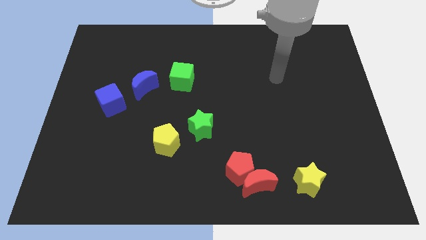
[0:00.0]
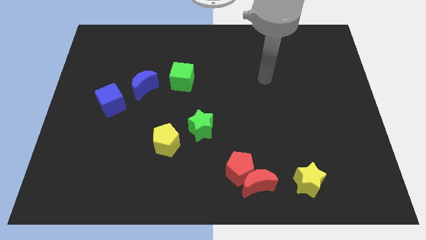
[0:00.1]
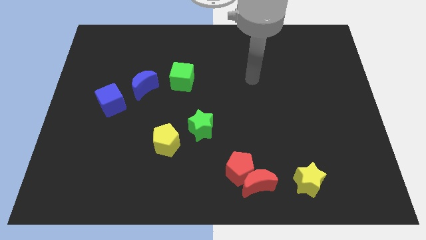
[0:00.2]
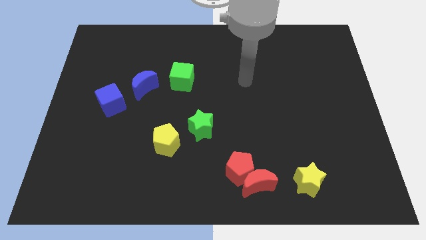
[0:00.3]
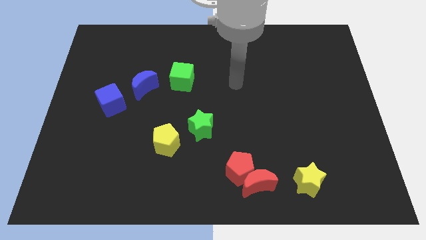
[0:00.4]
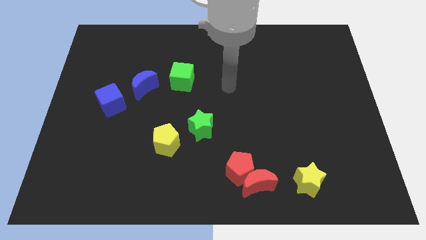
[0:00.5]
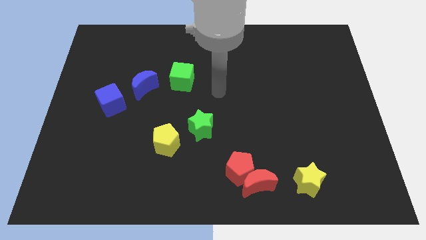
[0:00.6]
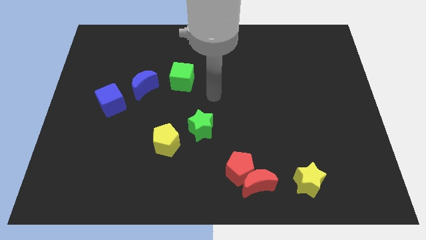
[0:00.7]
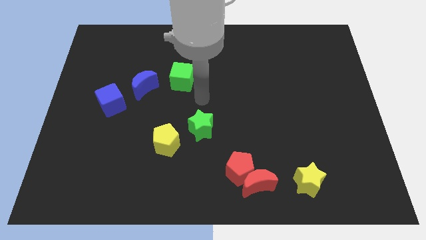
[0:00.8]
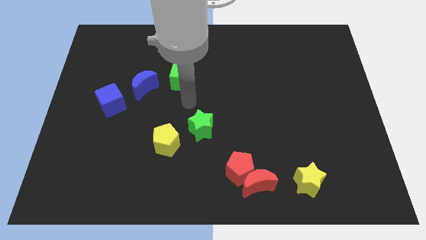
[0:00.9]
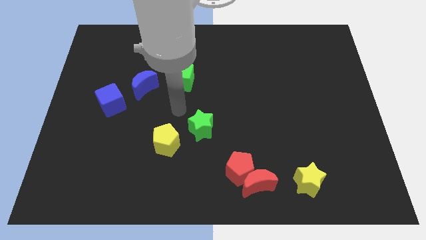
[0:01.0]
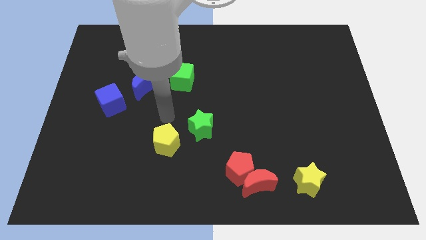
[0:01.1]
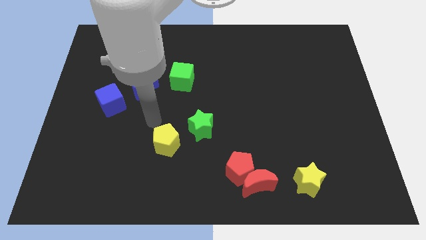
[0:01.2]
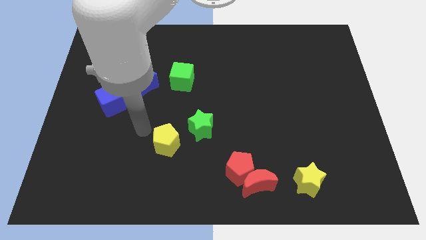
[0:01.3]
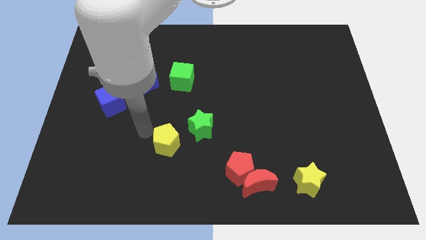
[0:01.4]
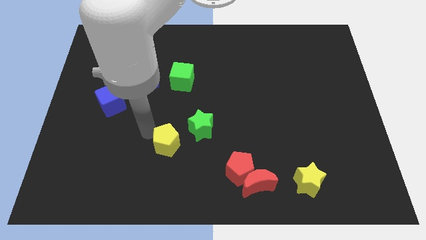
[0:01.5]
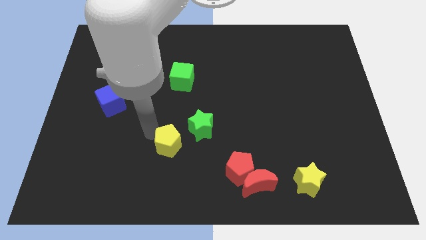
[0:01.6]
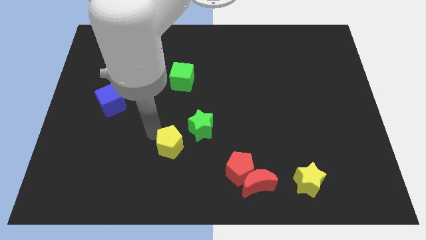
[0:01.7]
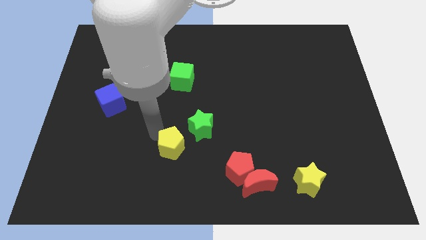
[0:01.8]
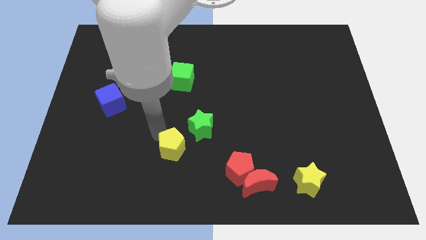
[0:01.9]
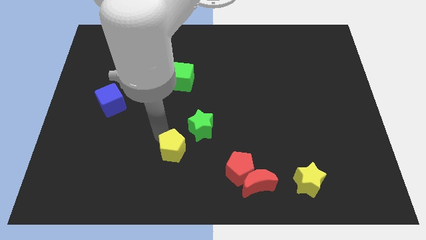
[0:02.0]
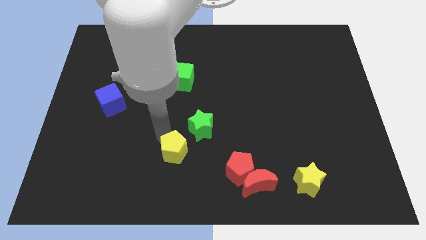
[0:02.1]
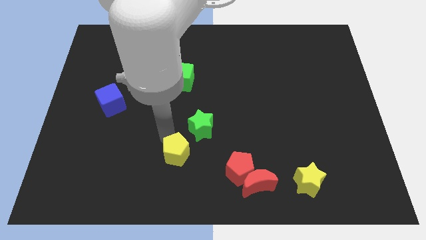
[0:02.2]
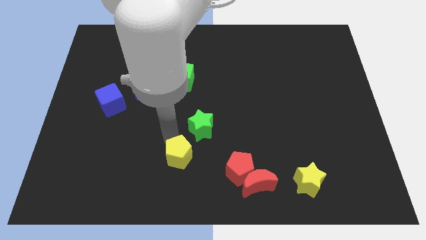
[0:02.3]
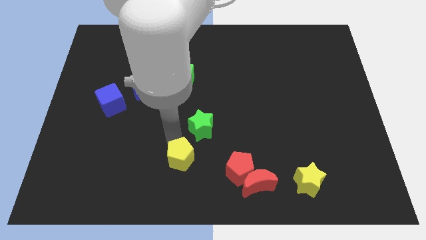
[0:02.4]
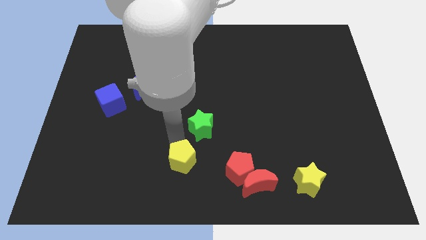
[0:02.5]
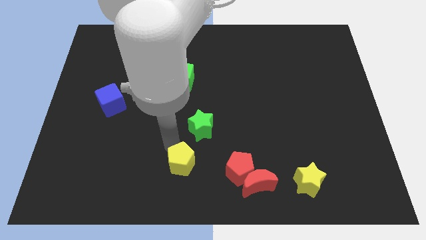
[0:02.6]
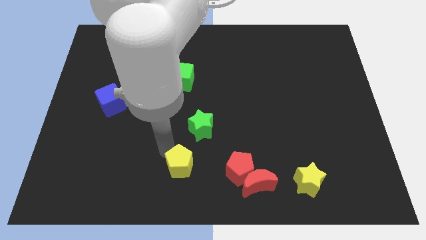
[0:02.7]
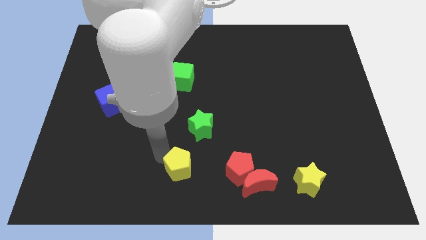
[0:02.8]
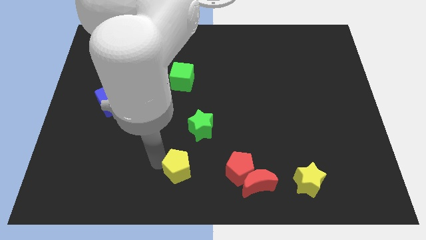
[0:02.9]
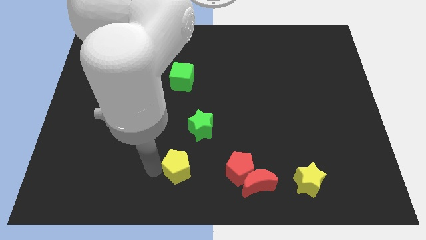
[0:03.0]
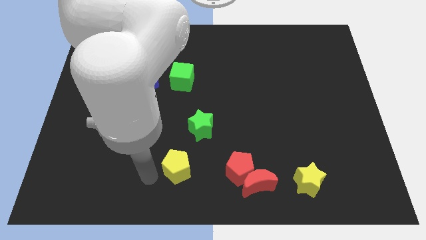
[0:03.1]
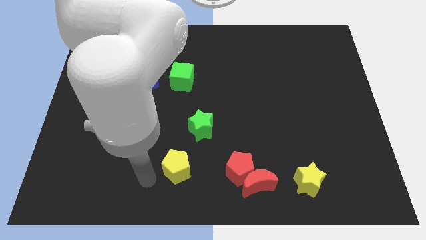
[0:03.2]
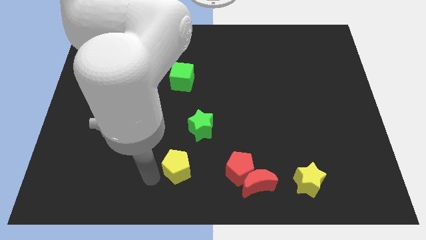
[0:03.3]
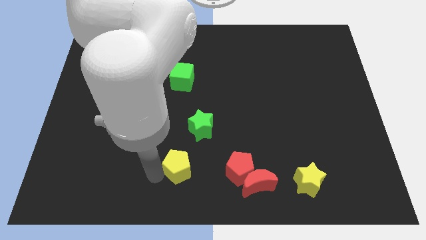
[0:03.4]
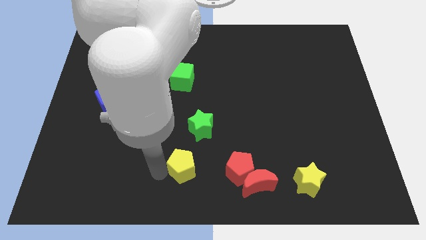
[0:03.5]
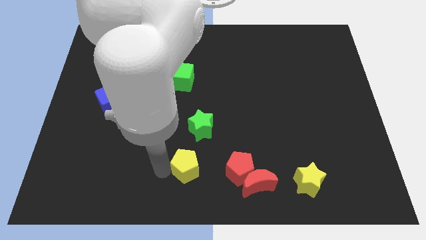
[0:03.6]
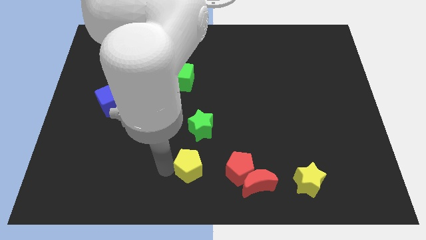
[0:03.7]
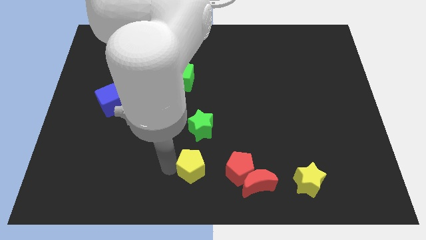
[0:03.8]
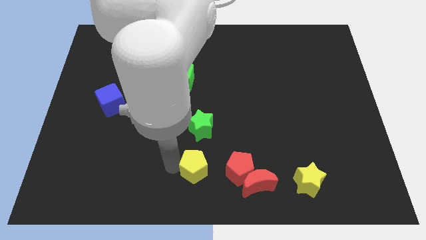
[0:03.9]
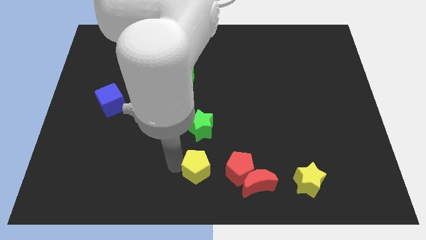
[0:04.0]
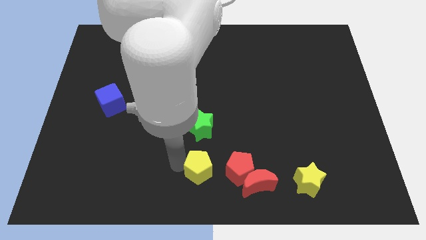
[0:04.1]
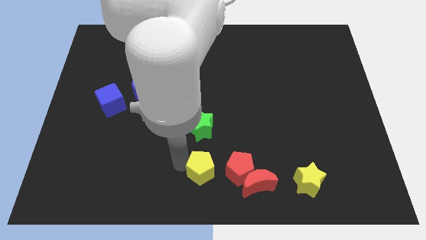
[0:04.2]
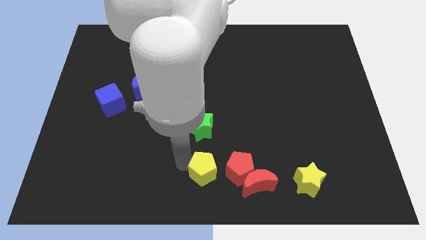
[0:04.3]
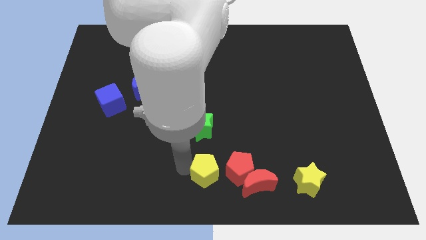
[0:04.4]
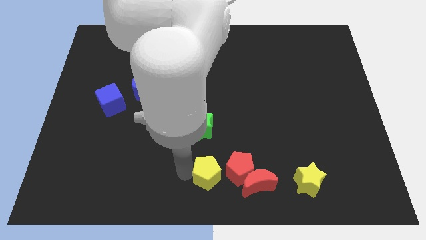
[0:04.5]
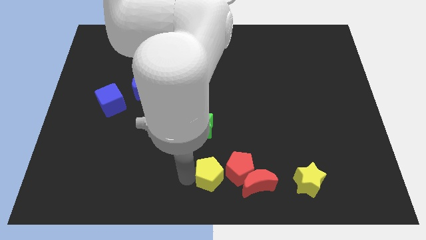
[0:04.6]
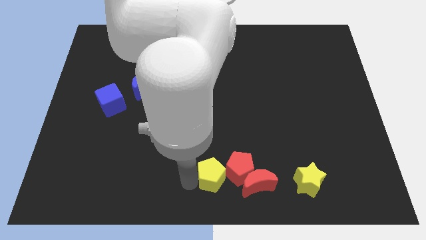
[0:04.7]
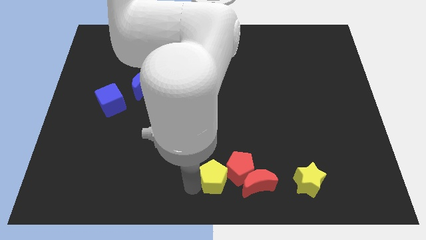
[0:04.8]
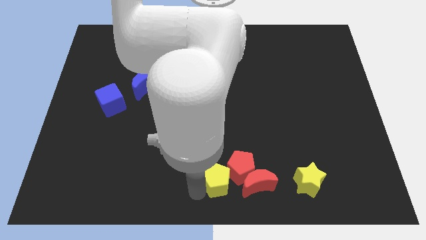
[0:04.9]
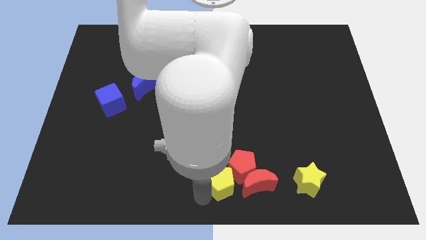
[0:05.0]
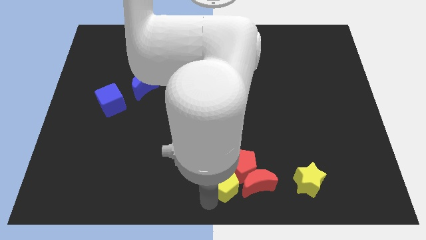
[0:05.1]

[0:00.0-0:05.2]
put the yellow pentagon to the top left of the red moon

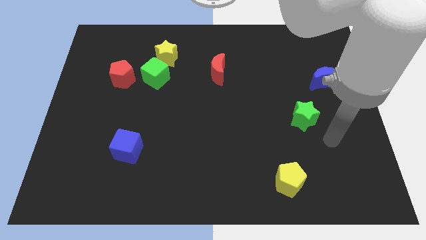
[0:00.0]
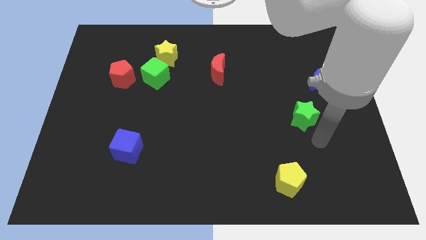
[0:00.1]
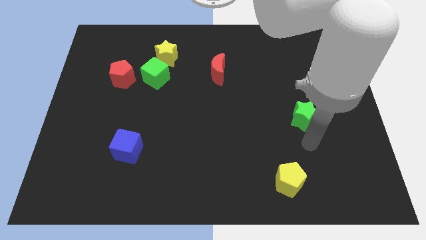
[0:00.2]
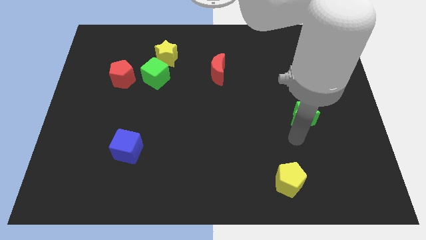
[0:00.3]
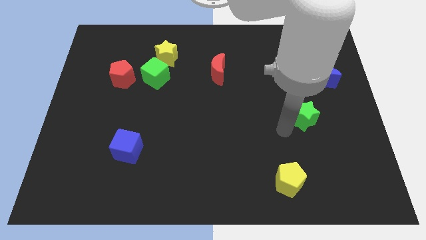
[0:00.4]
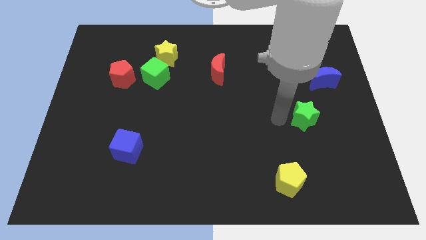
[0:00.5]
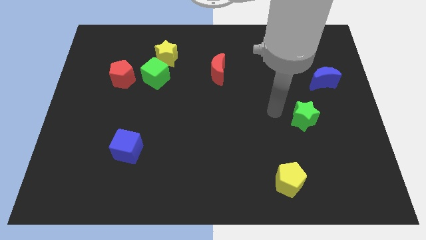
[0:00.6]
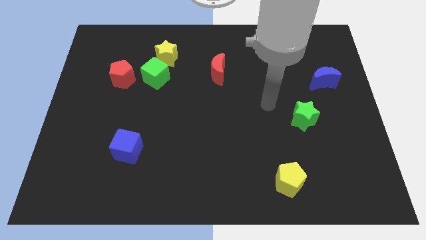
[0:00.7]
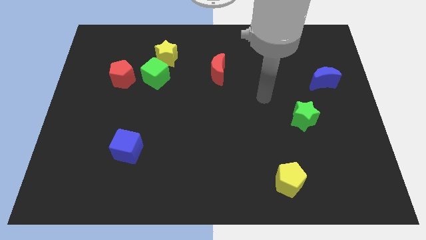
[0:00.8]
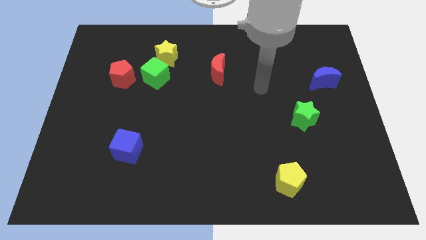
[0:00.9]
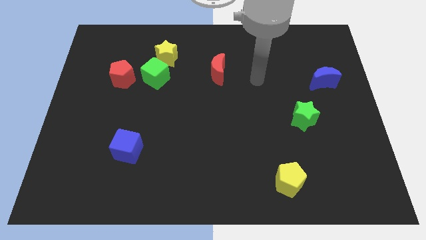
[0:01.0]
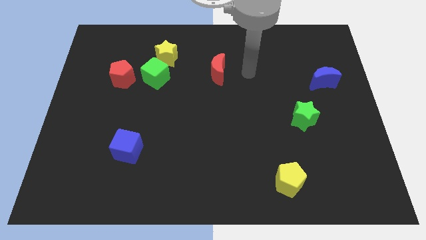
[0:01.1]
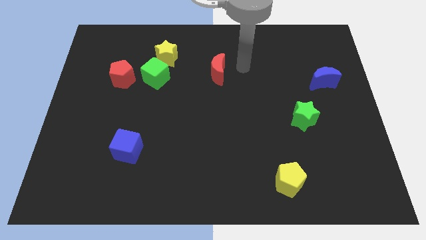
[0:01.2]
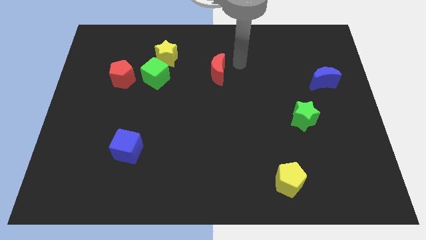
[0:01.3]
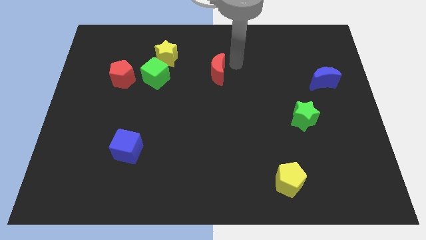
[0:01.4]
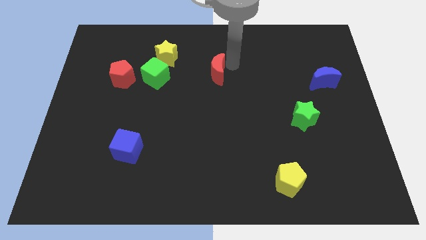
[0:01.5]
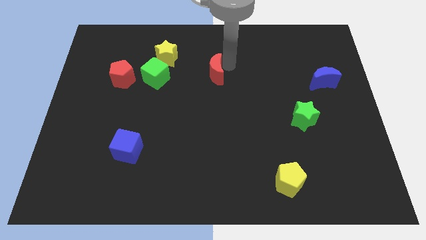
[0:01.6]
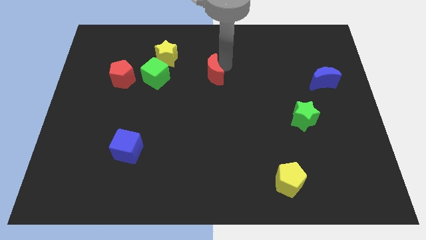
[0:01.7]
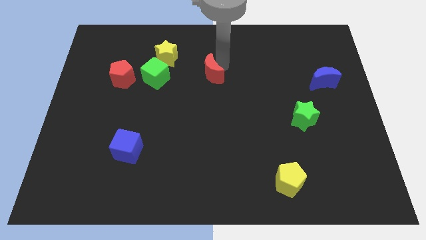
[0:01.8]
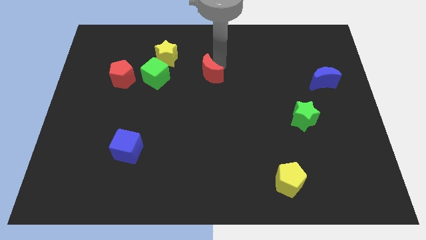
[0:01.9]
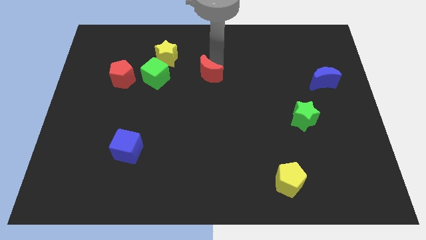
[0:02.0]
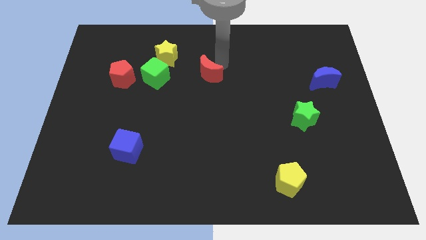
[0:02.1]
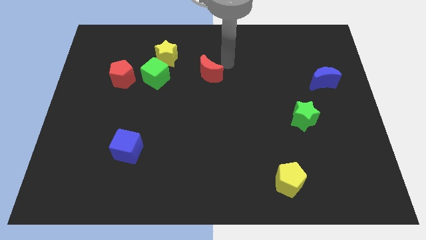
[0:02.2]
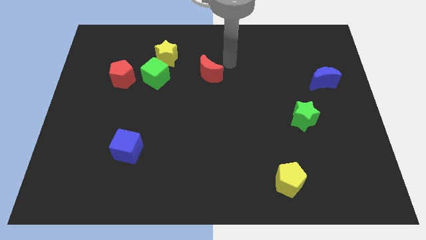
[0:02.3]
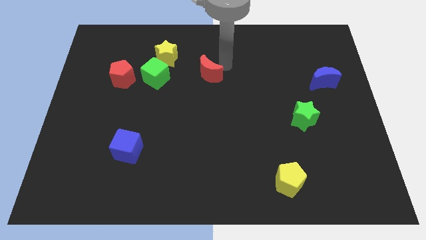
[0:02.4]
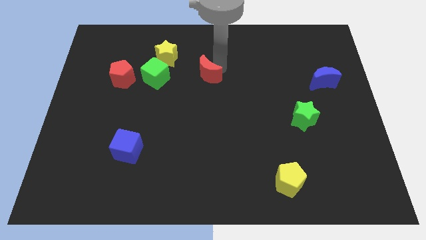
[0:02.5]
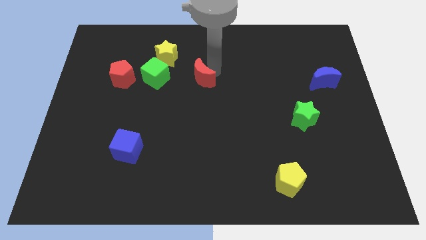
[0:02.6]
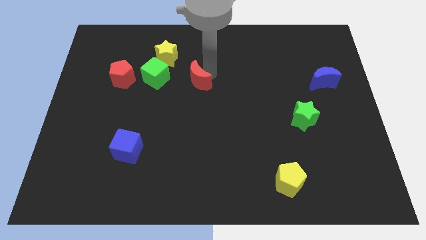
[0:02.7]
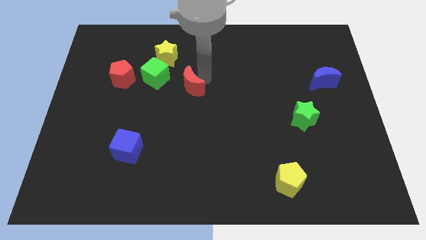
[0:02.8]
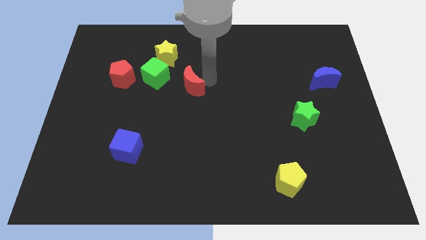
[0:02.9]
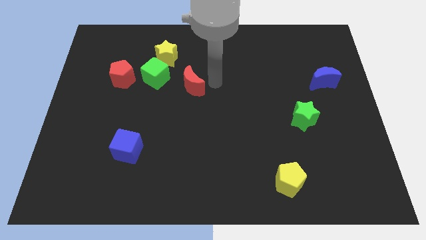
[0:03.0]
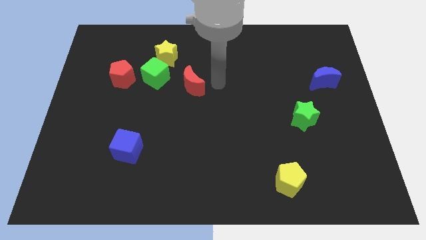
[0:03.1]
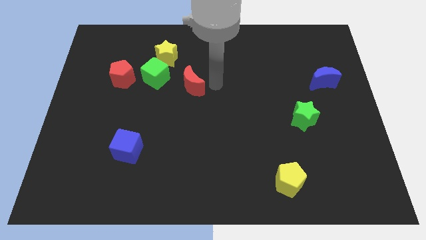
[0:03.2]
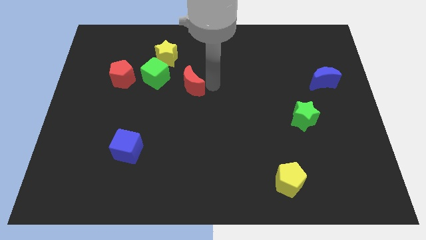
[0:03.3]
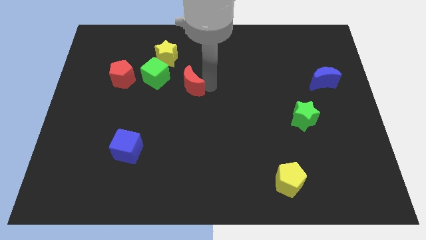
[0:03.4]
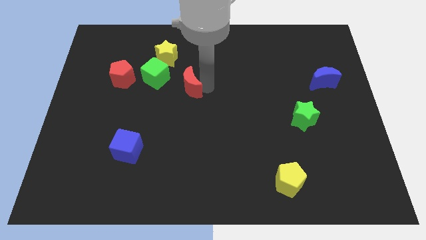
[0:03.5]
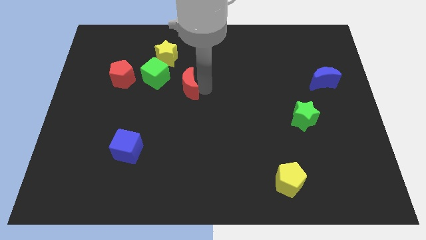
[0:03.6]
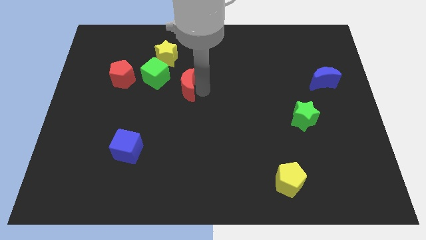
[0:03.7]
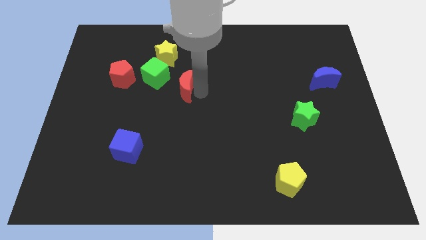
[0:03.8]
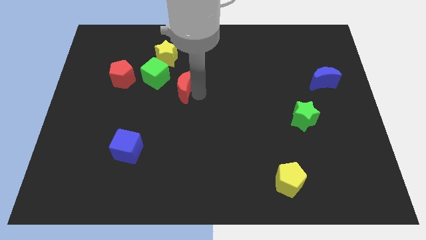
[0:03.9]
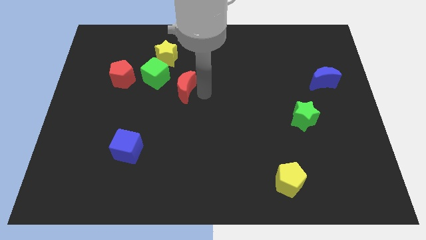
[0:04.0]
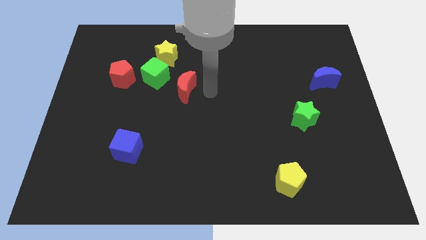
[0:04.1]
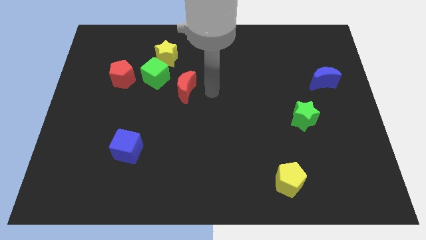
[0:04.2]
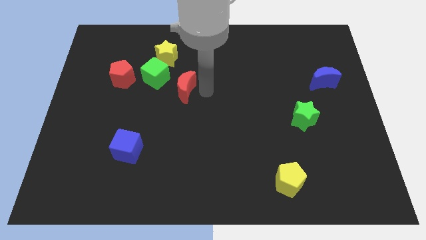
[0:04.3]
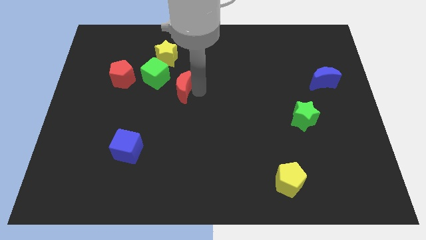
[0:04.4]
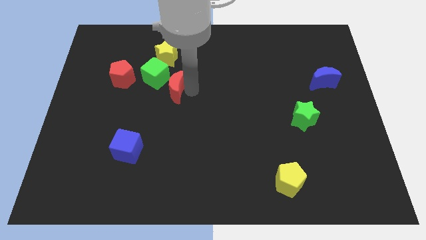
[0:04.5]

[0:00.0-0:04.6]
put the red moon below the yellow star
